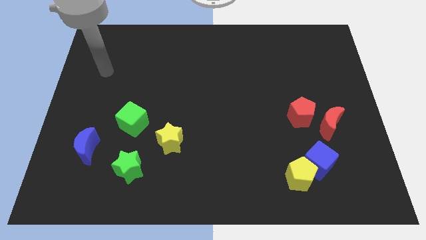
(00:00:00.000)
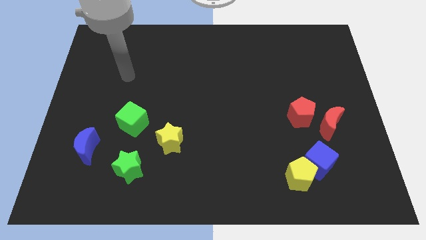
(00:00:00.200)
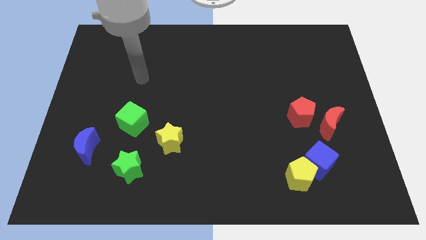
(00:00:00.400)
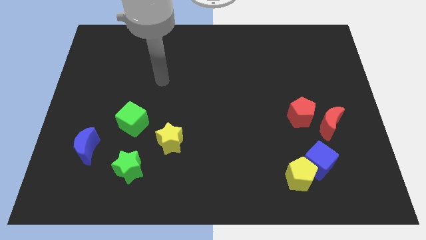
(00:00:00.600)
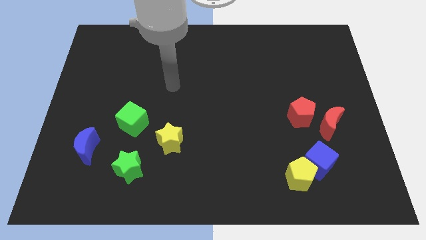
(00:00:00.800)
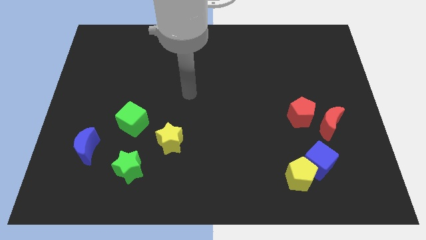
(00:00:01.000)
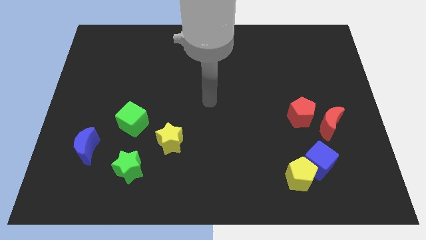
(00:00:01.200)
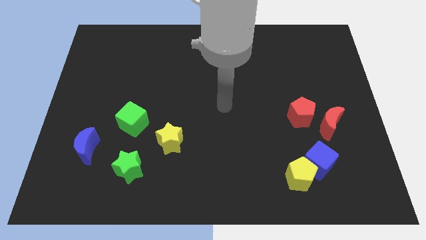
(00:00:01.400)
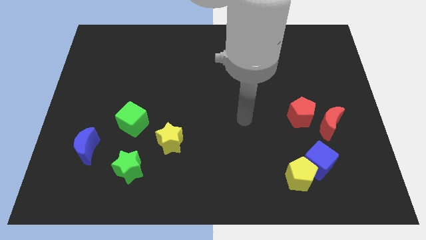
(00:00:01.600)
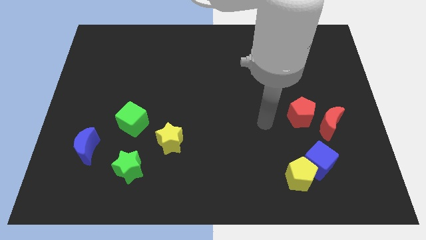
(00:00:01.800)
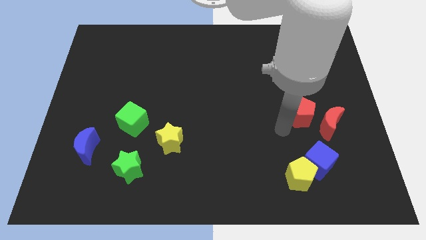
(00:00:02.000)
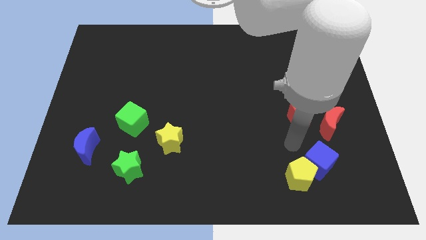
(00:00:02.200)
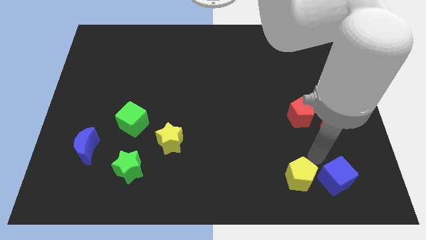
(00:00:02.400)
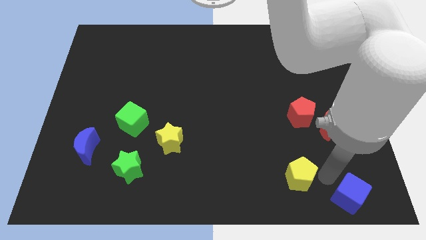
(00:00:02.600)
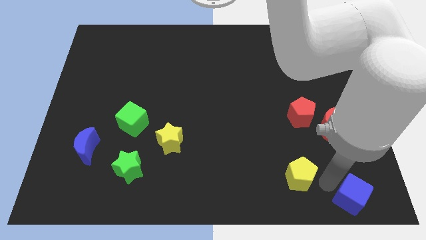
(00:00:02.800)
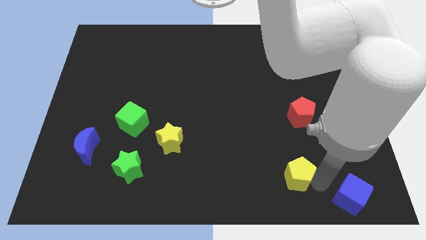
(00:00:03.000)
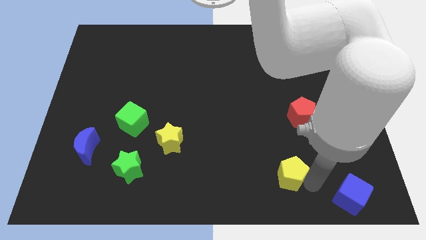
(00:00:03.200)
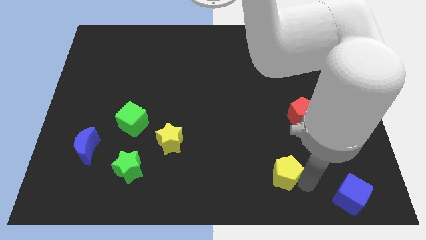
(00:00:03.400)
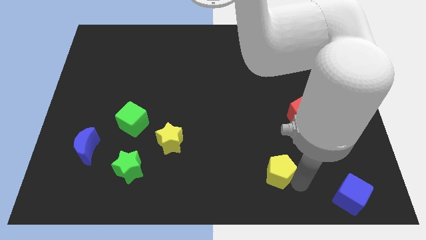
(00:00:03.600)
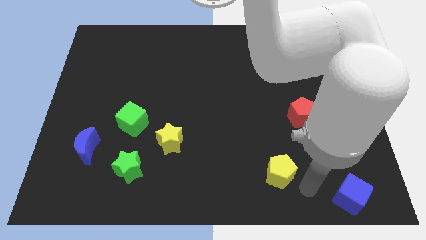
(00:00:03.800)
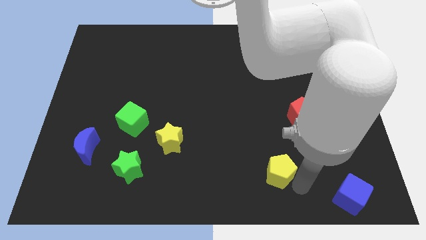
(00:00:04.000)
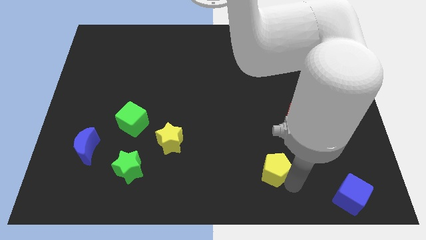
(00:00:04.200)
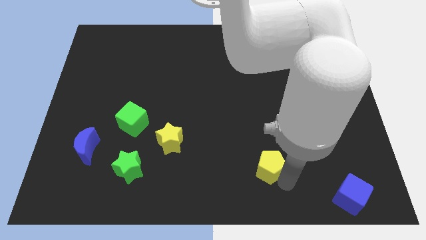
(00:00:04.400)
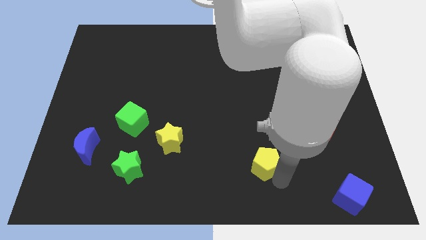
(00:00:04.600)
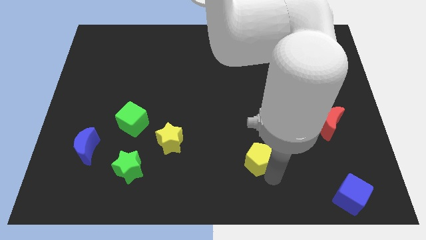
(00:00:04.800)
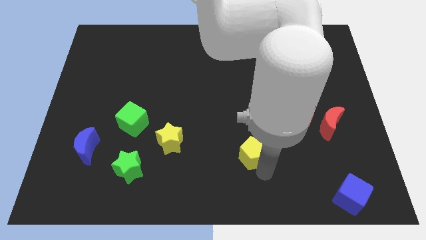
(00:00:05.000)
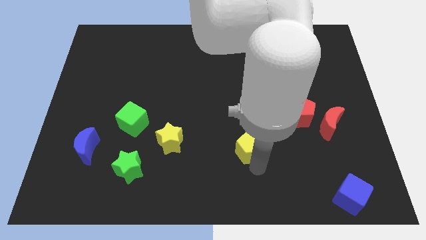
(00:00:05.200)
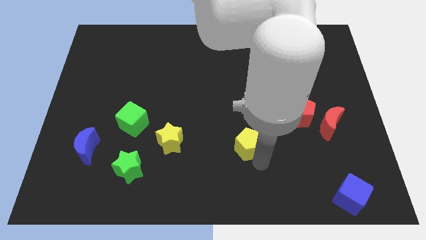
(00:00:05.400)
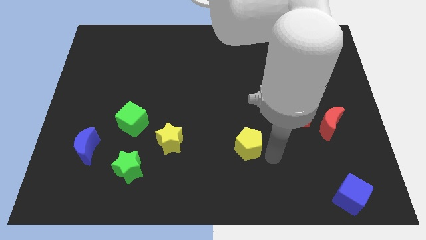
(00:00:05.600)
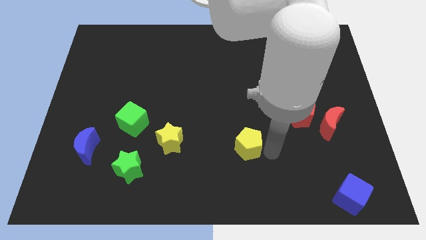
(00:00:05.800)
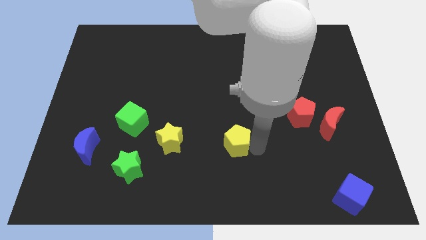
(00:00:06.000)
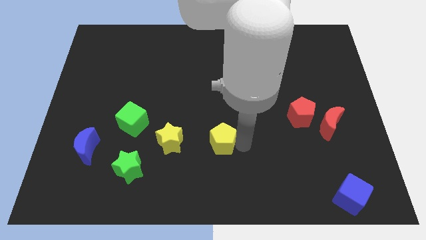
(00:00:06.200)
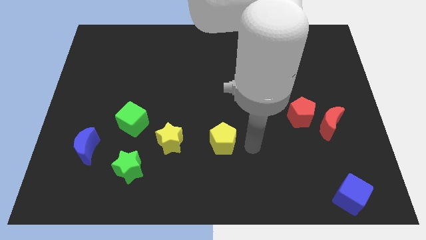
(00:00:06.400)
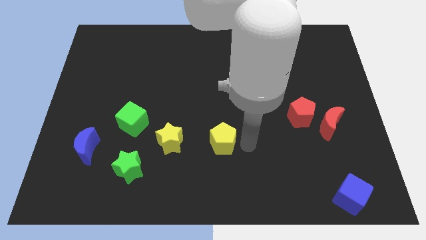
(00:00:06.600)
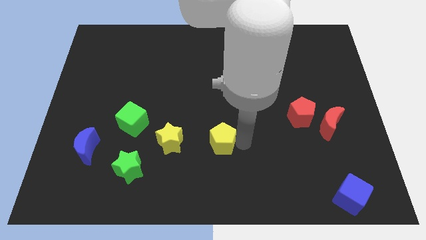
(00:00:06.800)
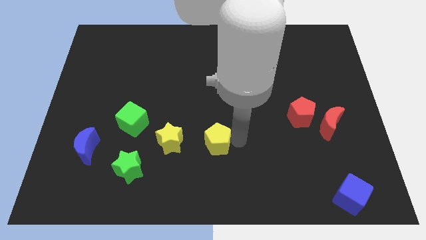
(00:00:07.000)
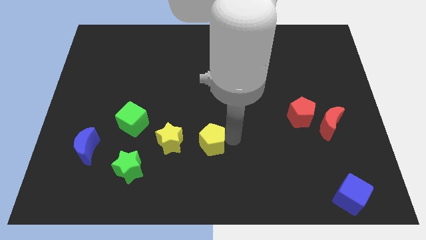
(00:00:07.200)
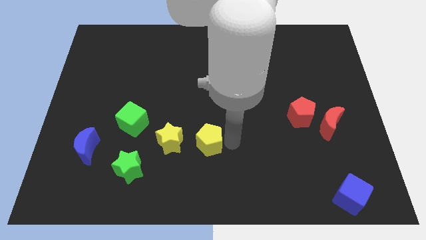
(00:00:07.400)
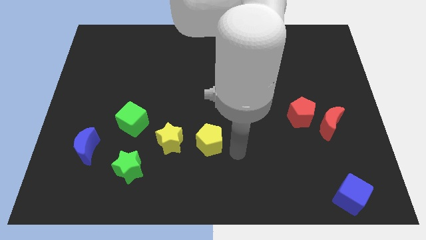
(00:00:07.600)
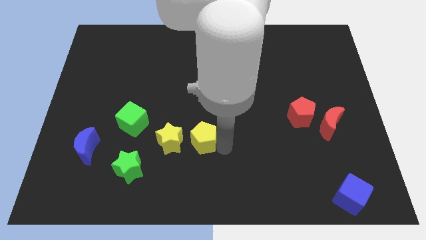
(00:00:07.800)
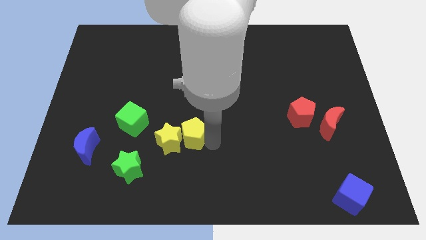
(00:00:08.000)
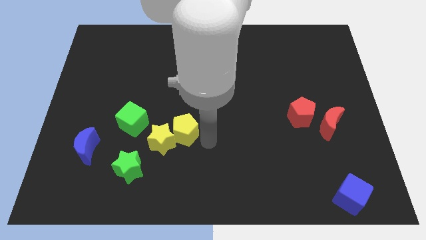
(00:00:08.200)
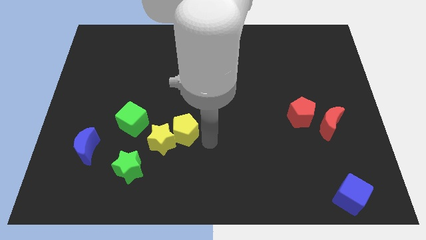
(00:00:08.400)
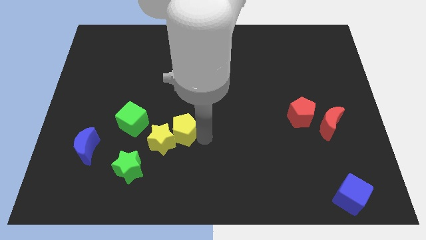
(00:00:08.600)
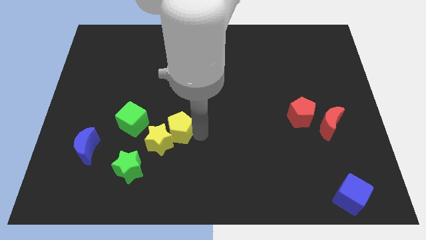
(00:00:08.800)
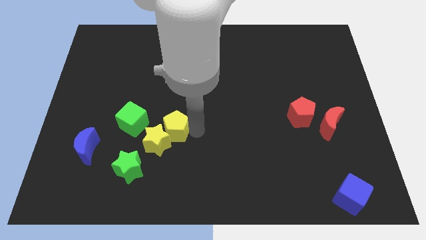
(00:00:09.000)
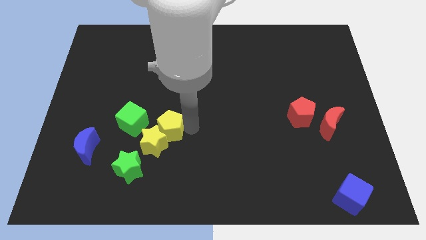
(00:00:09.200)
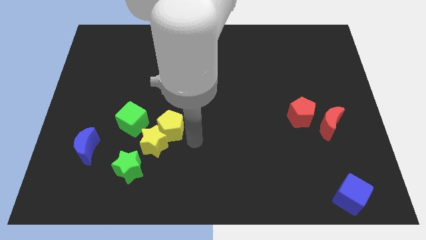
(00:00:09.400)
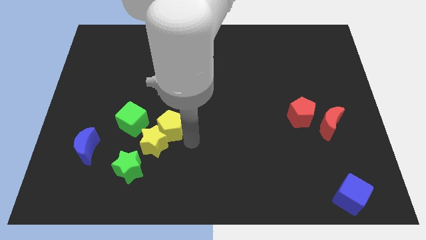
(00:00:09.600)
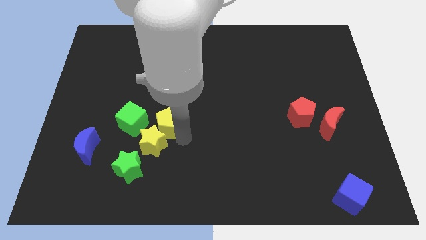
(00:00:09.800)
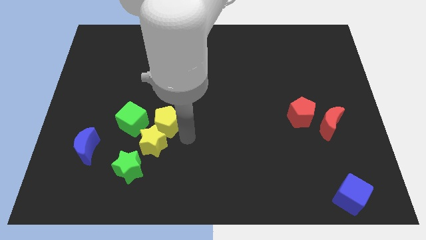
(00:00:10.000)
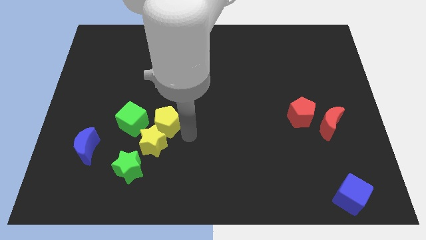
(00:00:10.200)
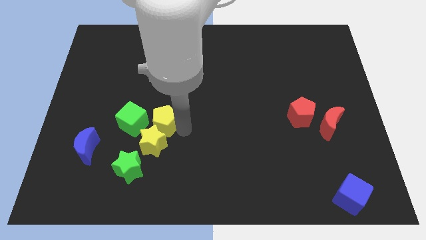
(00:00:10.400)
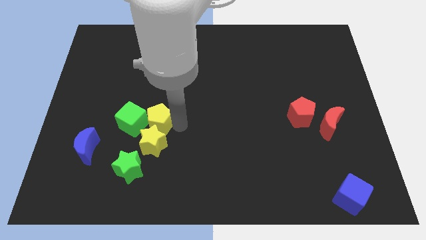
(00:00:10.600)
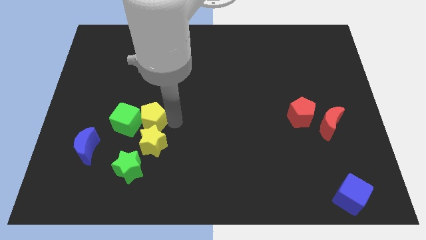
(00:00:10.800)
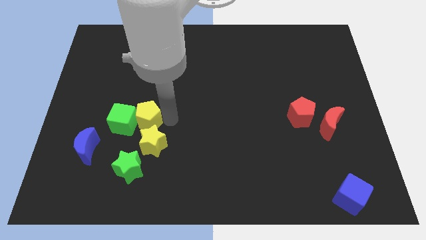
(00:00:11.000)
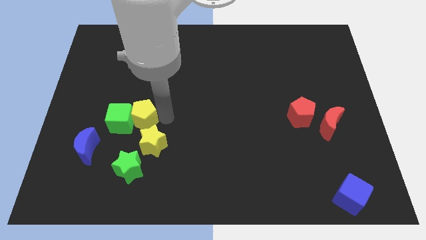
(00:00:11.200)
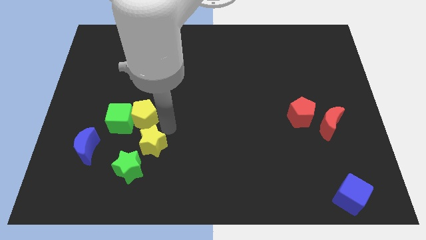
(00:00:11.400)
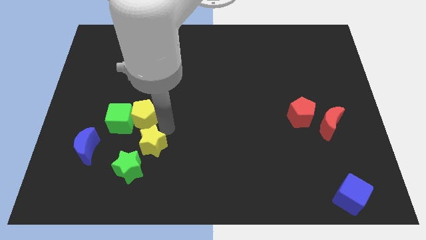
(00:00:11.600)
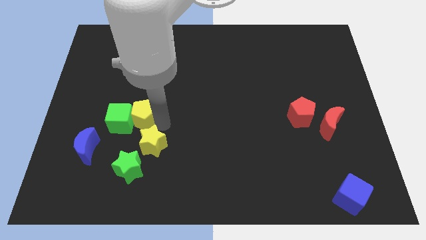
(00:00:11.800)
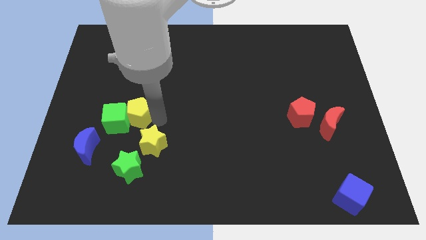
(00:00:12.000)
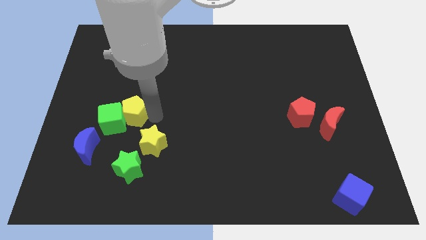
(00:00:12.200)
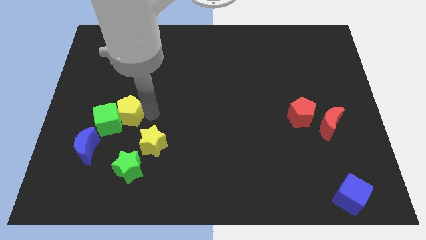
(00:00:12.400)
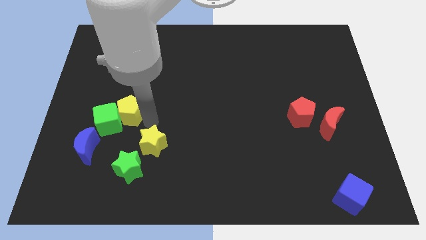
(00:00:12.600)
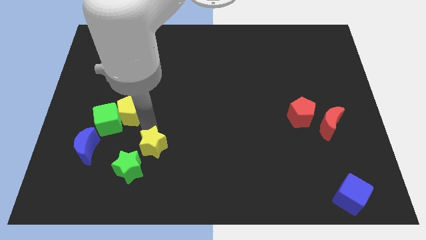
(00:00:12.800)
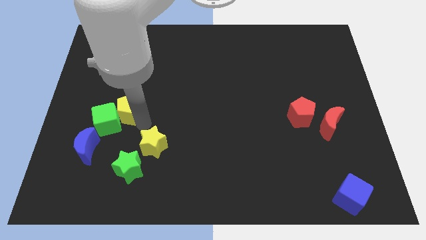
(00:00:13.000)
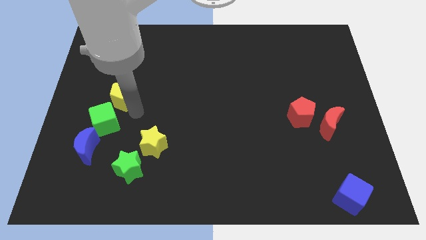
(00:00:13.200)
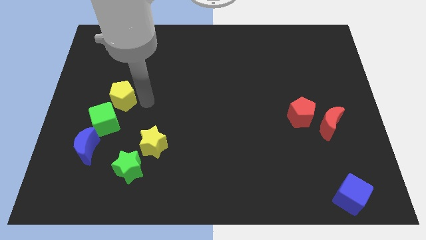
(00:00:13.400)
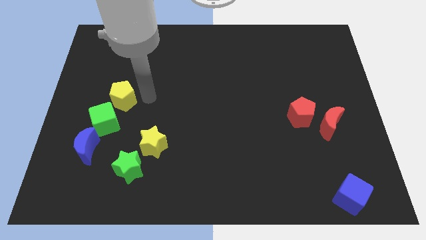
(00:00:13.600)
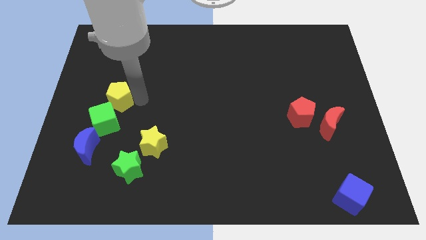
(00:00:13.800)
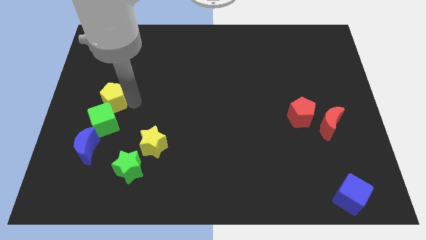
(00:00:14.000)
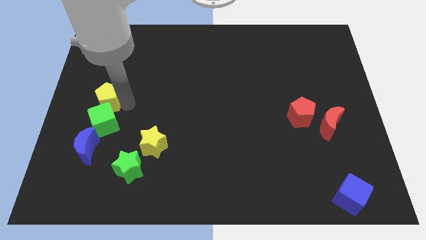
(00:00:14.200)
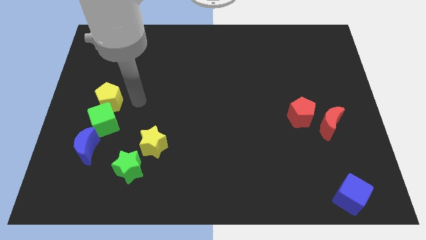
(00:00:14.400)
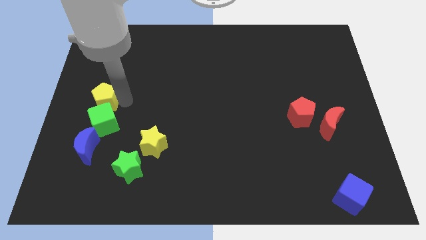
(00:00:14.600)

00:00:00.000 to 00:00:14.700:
put the yellow pentagon to the left side
